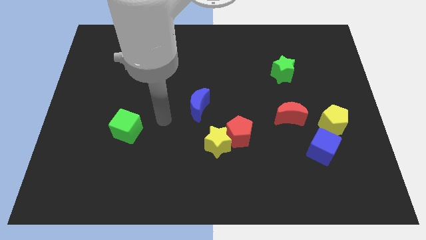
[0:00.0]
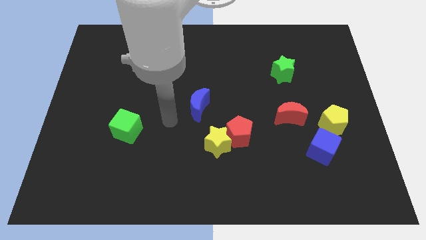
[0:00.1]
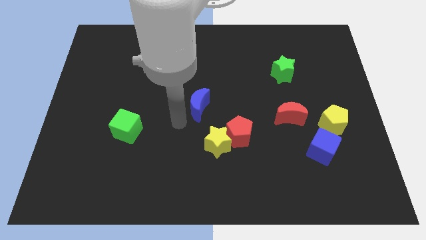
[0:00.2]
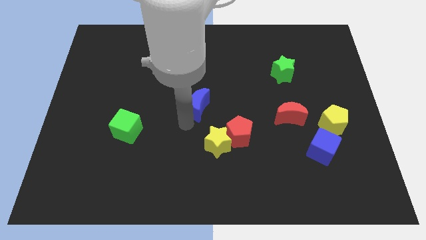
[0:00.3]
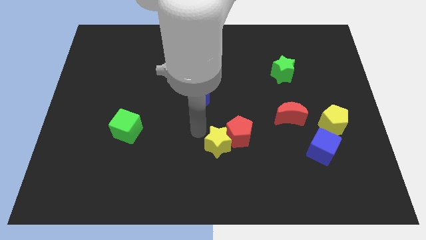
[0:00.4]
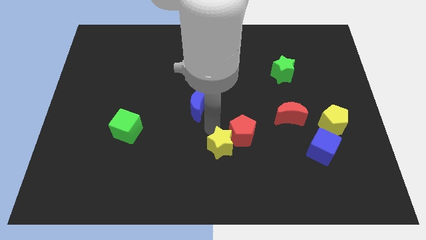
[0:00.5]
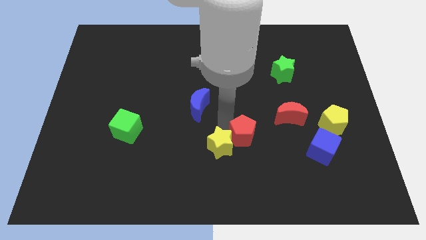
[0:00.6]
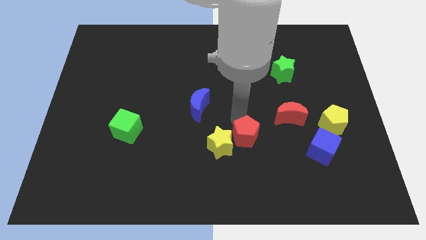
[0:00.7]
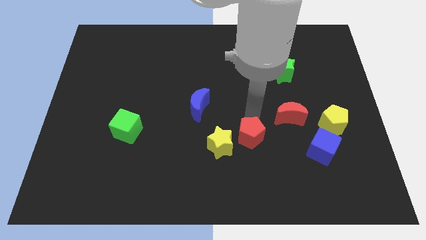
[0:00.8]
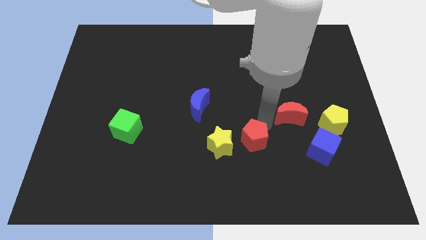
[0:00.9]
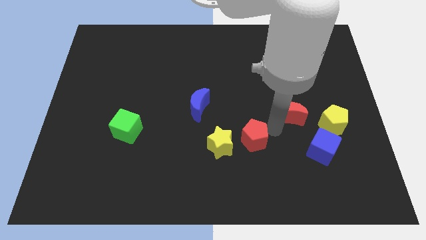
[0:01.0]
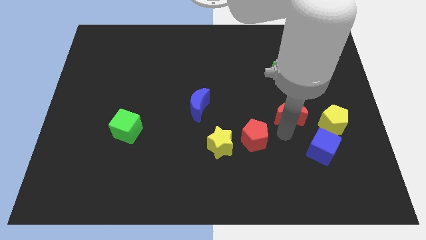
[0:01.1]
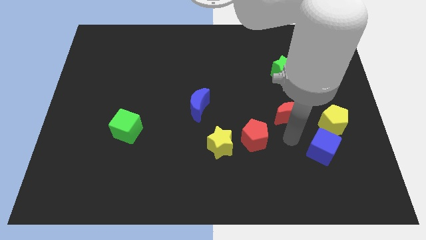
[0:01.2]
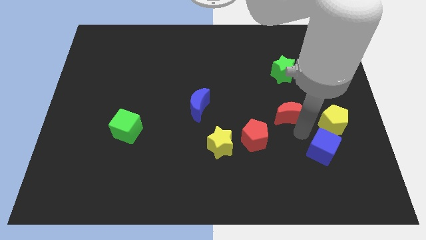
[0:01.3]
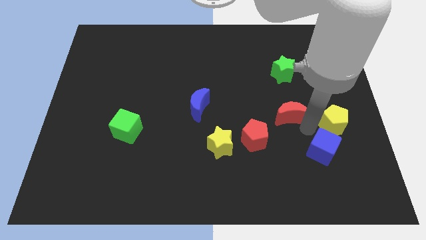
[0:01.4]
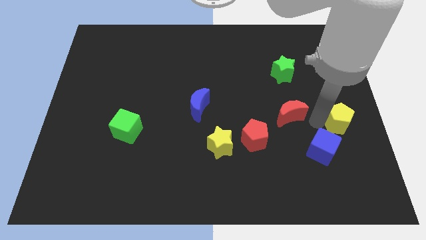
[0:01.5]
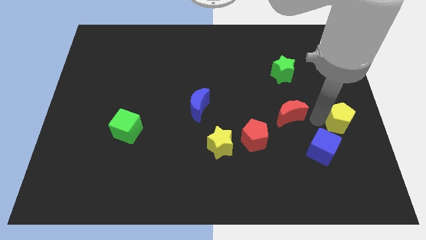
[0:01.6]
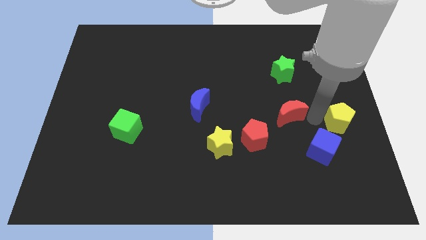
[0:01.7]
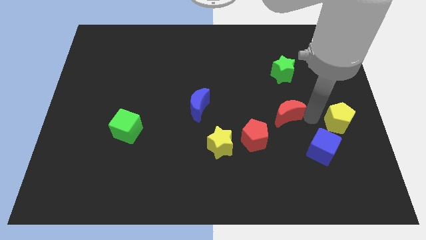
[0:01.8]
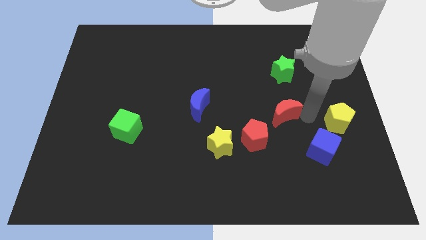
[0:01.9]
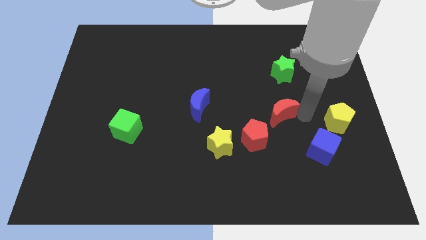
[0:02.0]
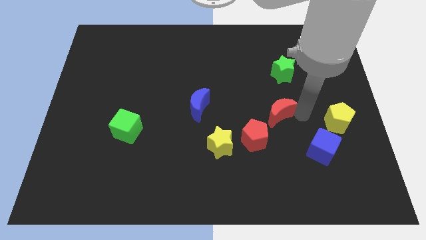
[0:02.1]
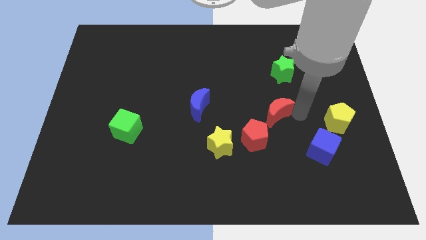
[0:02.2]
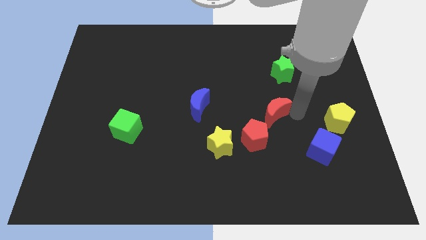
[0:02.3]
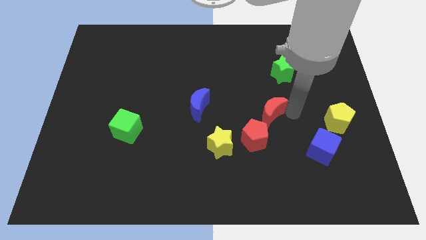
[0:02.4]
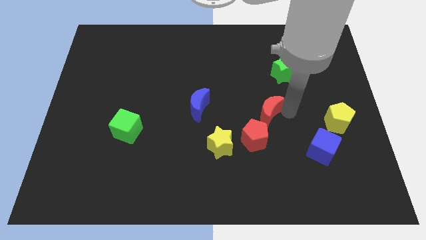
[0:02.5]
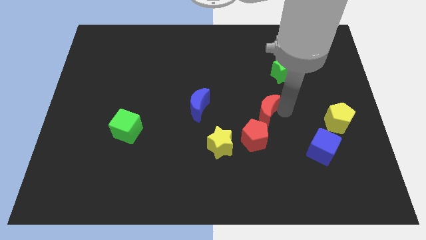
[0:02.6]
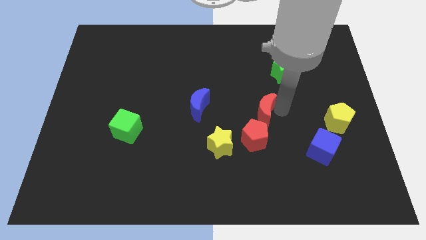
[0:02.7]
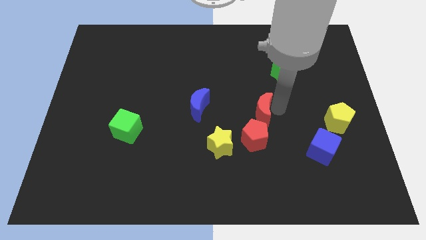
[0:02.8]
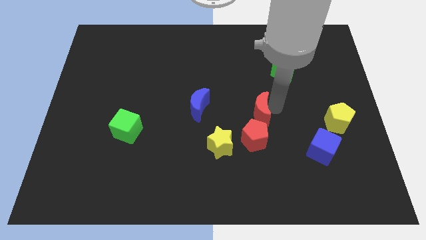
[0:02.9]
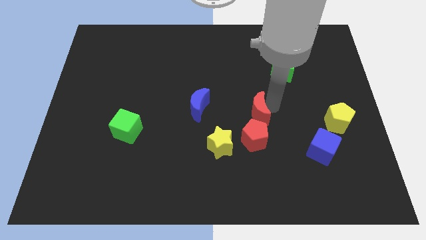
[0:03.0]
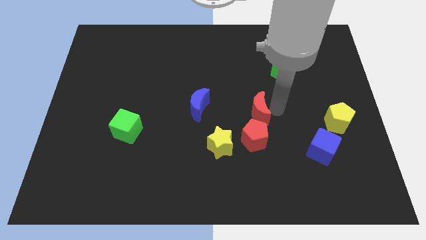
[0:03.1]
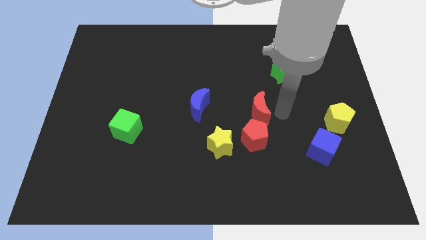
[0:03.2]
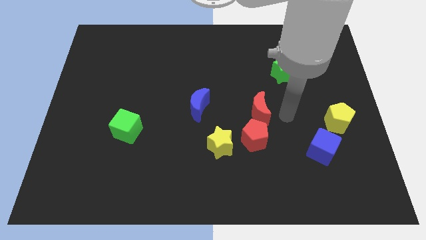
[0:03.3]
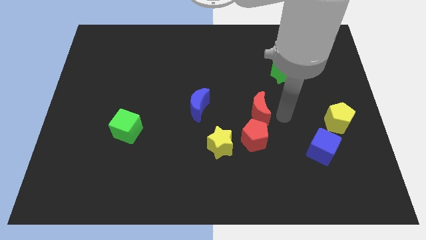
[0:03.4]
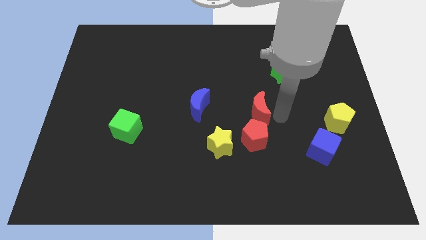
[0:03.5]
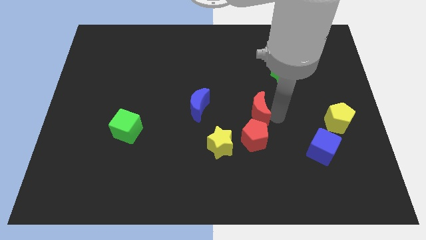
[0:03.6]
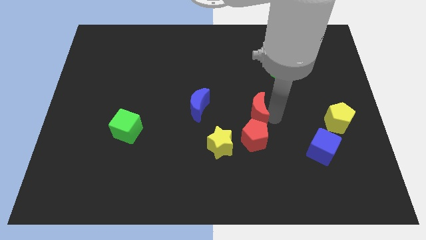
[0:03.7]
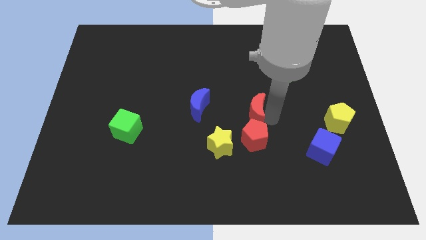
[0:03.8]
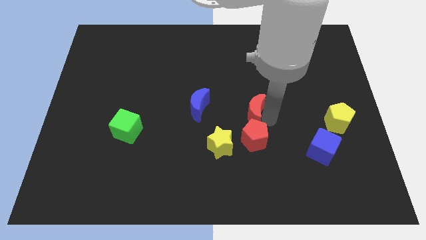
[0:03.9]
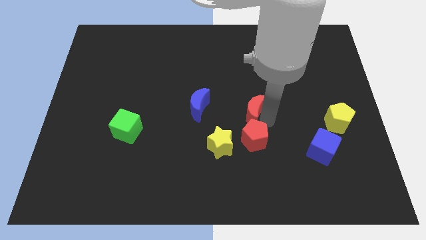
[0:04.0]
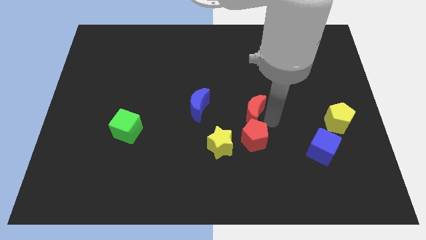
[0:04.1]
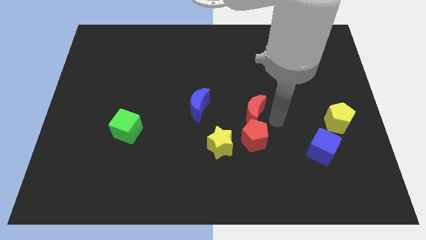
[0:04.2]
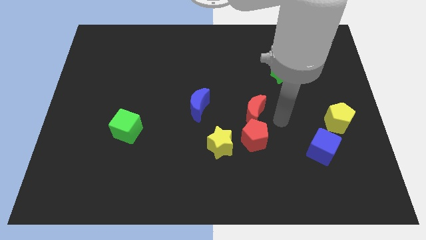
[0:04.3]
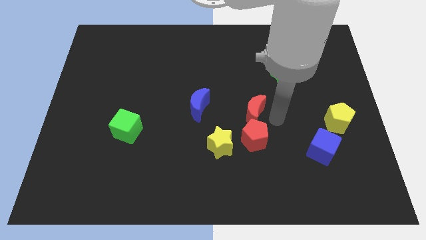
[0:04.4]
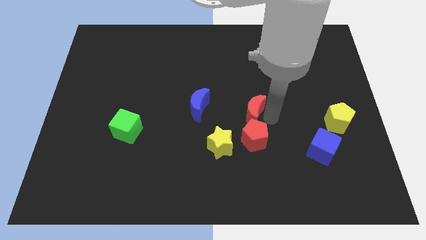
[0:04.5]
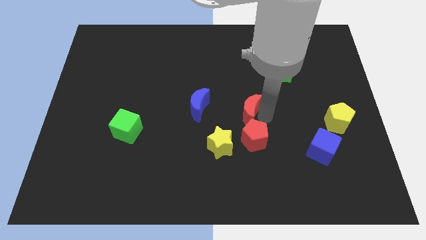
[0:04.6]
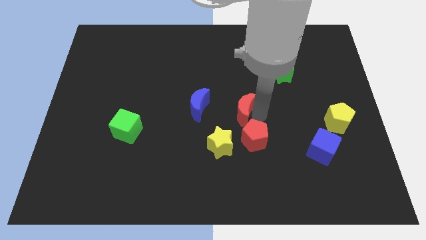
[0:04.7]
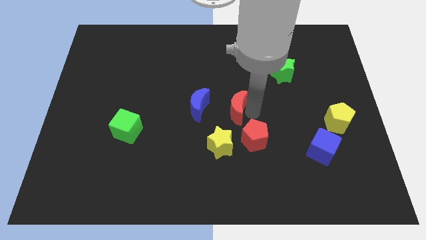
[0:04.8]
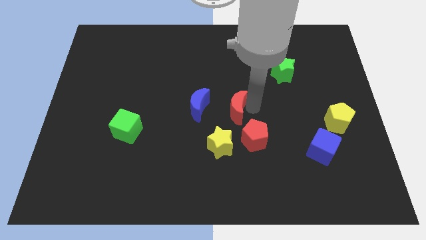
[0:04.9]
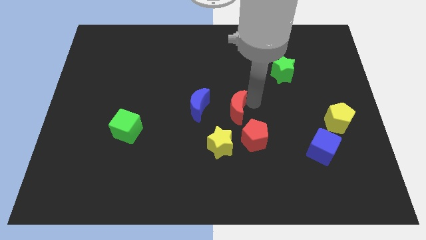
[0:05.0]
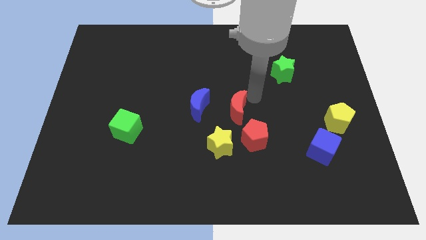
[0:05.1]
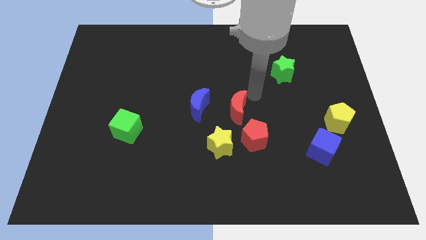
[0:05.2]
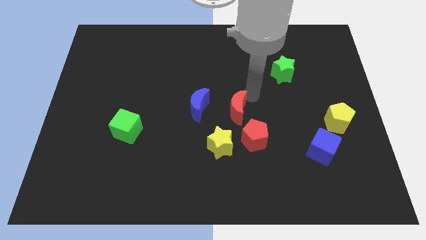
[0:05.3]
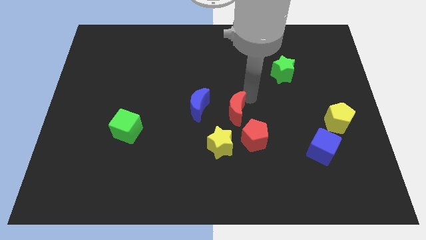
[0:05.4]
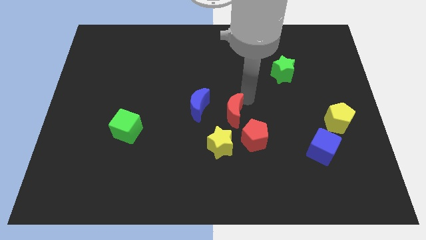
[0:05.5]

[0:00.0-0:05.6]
push the red moon diagonally down and to the right of the blue moon

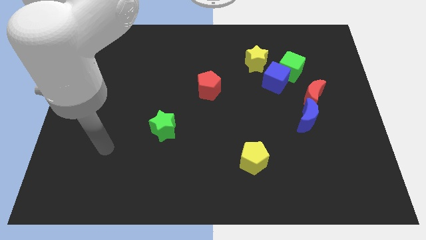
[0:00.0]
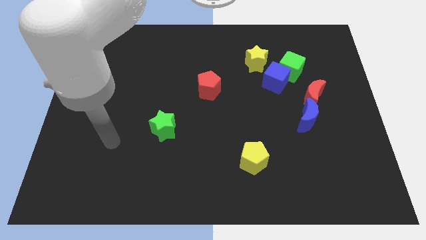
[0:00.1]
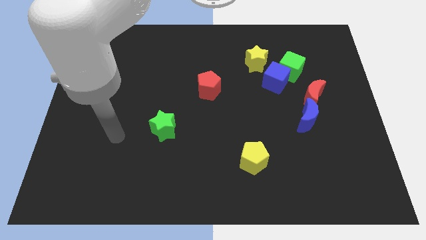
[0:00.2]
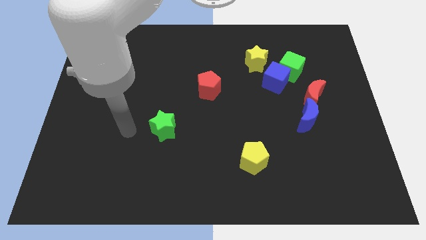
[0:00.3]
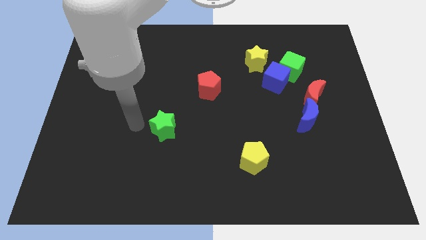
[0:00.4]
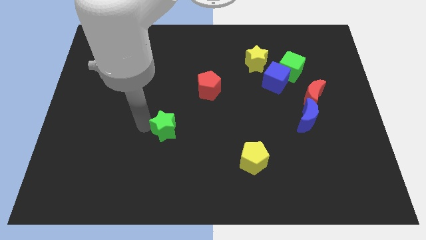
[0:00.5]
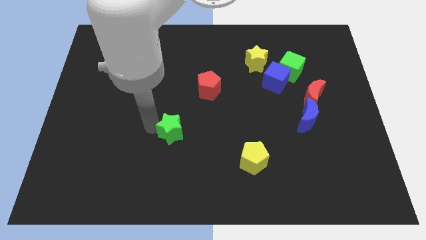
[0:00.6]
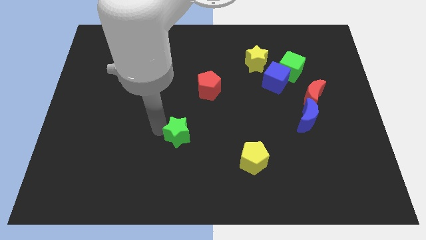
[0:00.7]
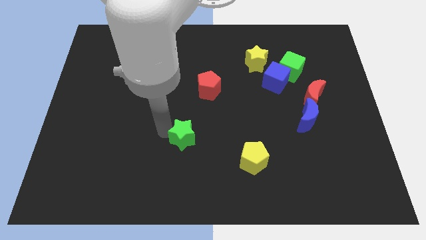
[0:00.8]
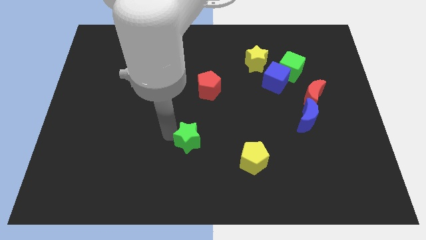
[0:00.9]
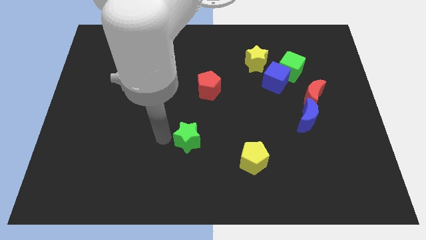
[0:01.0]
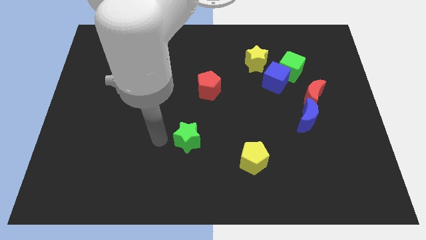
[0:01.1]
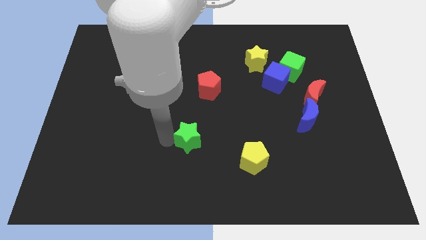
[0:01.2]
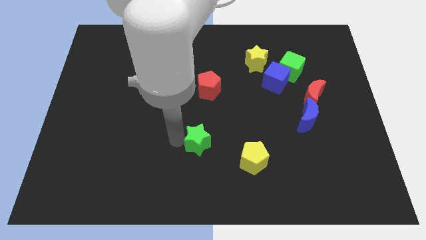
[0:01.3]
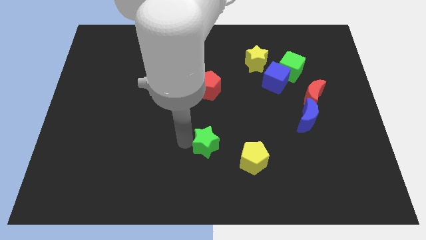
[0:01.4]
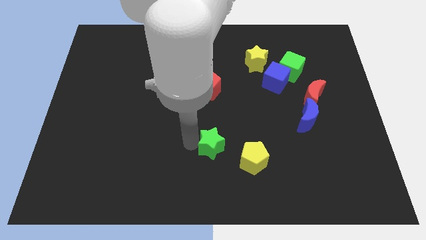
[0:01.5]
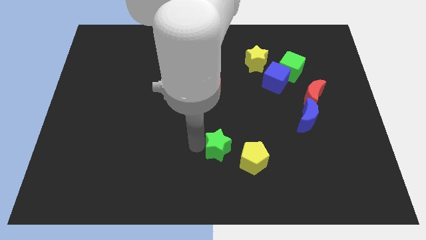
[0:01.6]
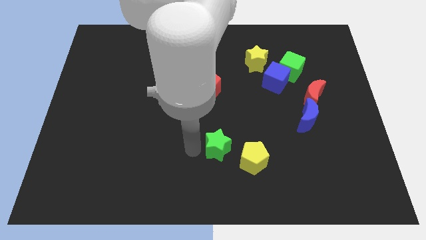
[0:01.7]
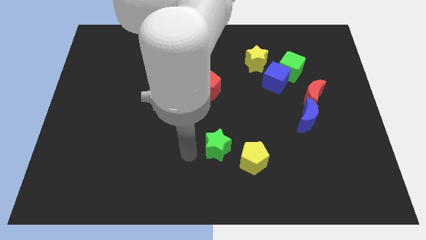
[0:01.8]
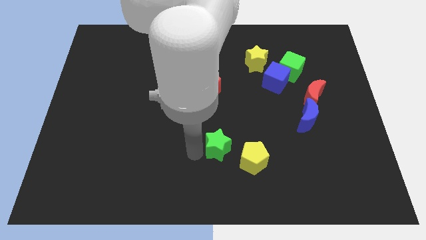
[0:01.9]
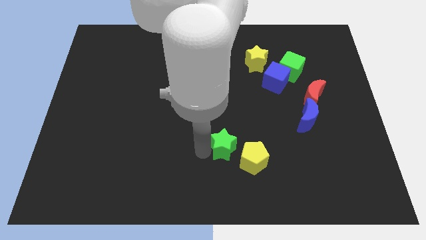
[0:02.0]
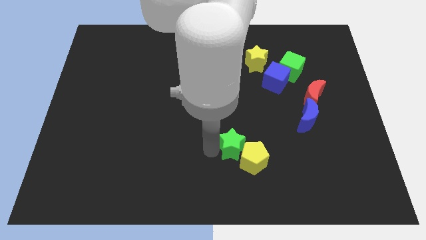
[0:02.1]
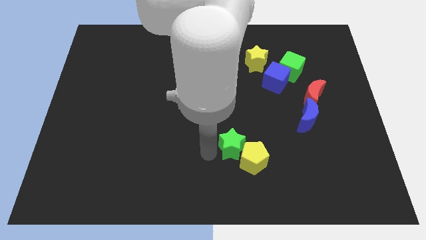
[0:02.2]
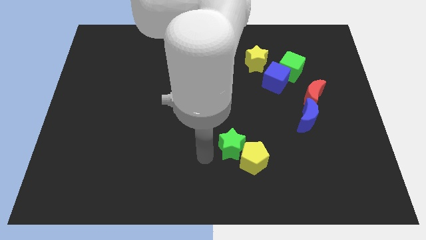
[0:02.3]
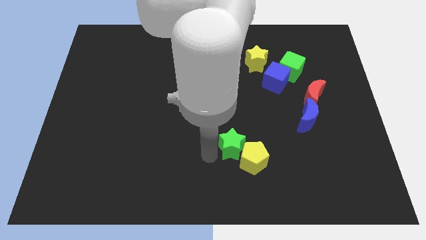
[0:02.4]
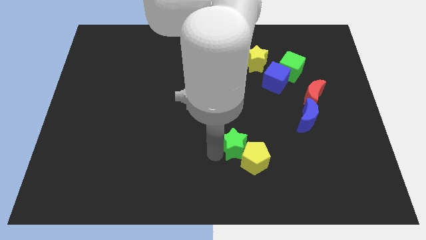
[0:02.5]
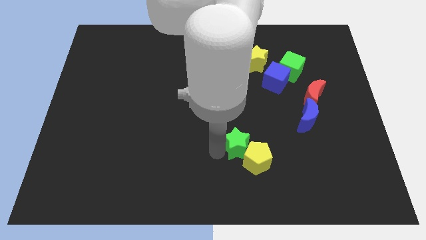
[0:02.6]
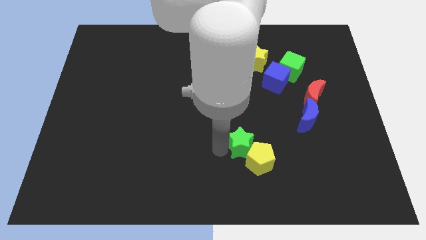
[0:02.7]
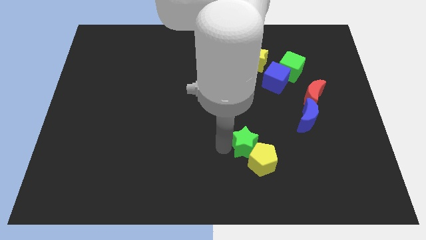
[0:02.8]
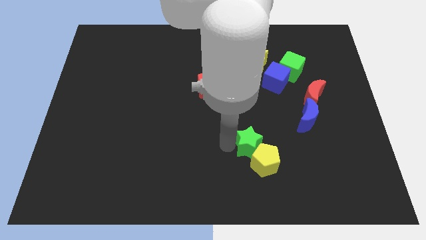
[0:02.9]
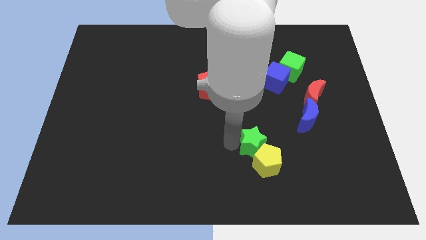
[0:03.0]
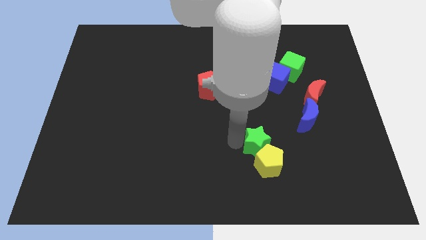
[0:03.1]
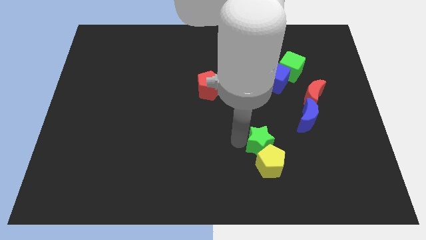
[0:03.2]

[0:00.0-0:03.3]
slide the green star to the top right side of the yellow pentagon
